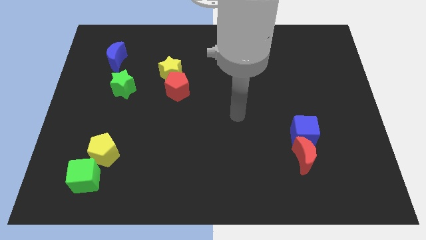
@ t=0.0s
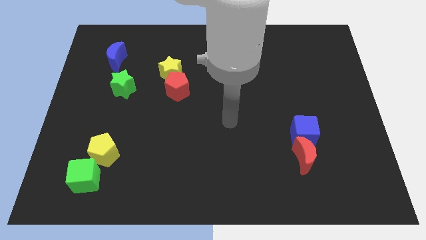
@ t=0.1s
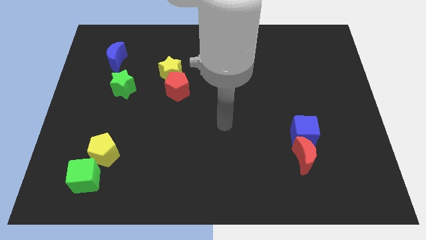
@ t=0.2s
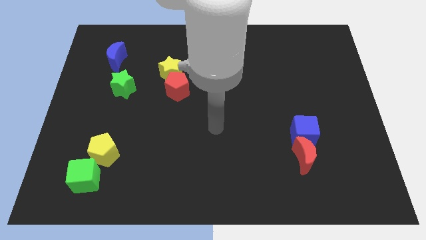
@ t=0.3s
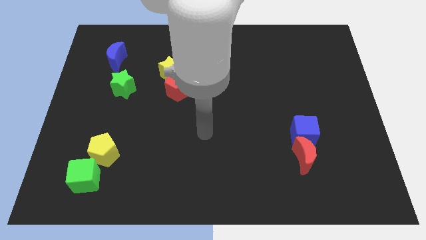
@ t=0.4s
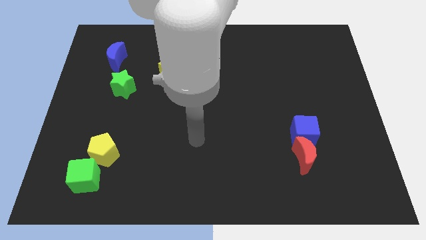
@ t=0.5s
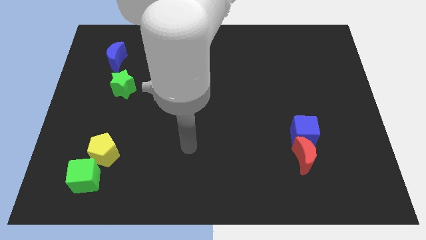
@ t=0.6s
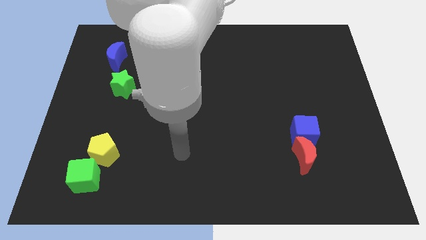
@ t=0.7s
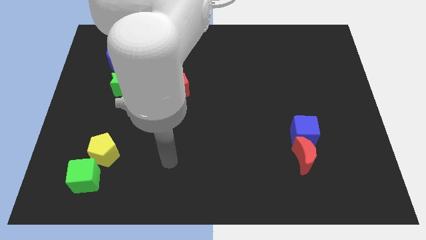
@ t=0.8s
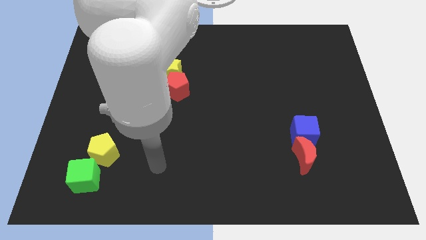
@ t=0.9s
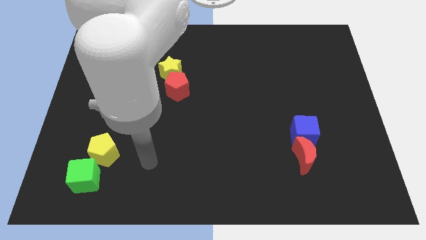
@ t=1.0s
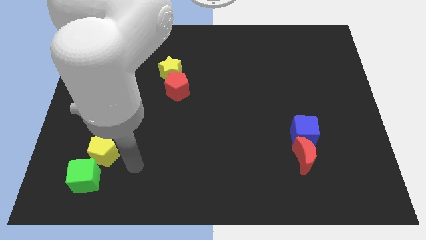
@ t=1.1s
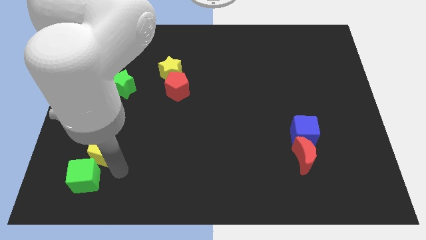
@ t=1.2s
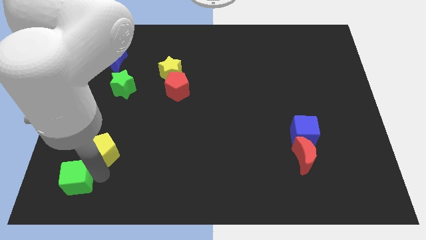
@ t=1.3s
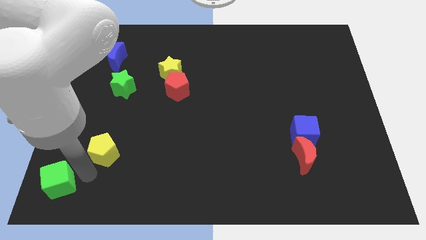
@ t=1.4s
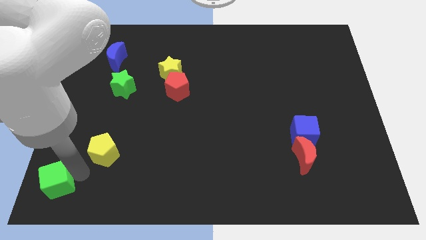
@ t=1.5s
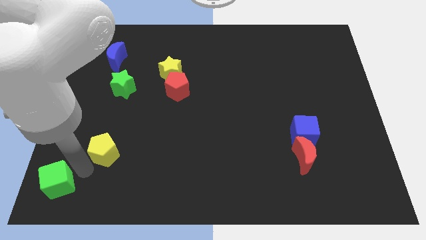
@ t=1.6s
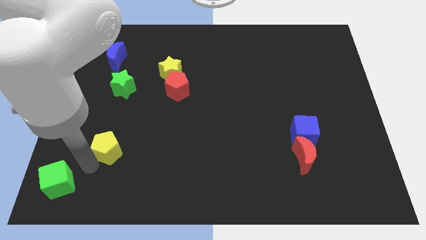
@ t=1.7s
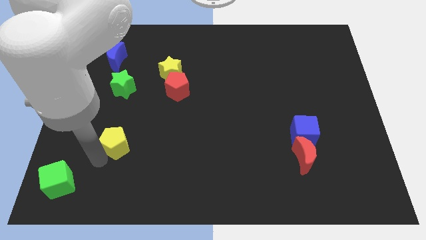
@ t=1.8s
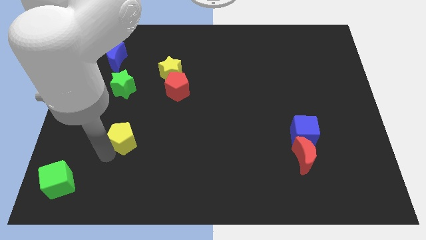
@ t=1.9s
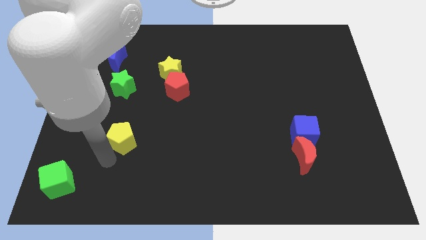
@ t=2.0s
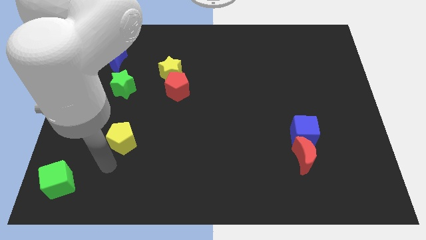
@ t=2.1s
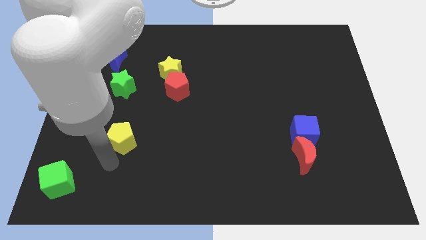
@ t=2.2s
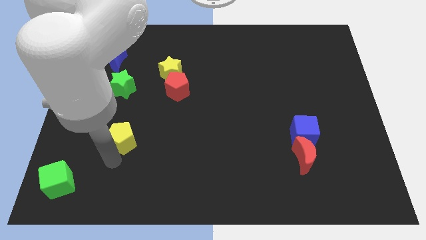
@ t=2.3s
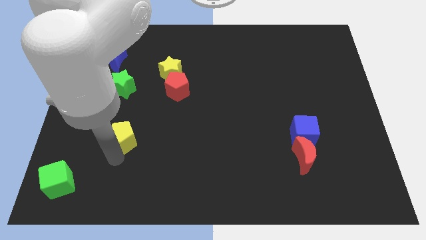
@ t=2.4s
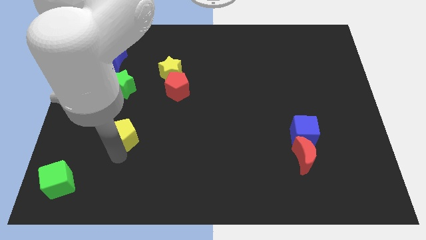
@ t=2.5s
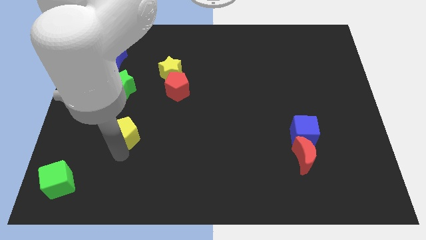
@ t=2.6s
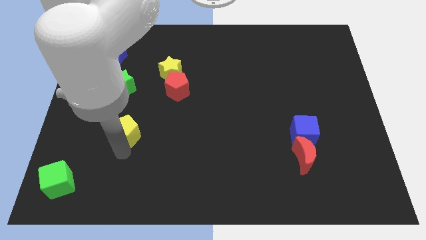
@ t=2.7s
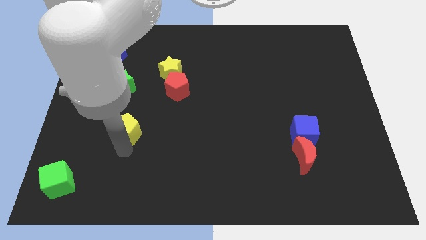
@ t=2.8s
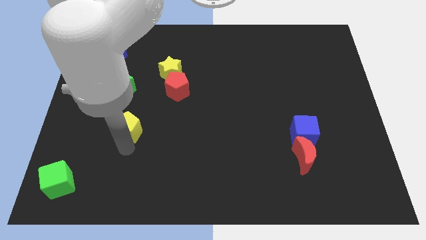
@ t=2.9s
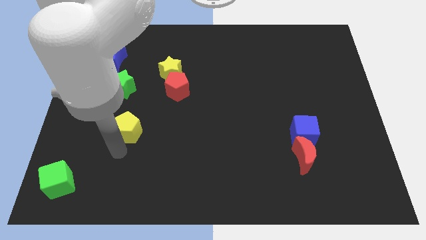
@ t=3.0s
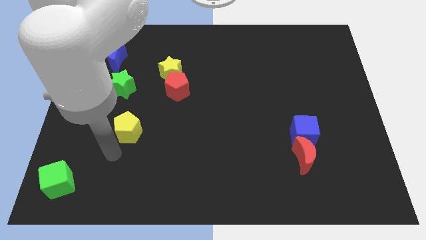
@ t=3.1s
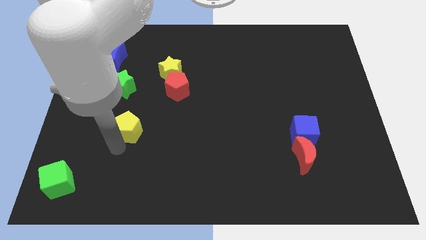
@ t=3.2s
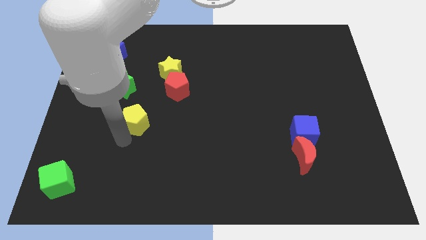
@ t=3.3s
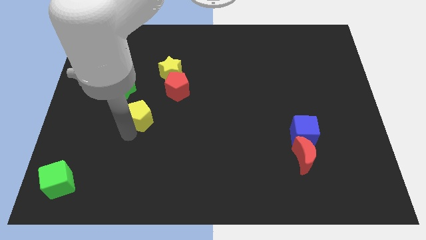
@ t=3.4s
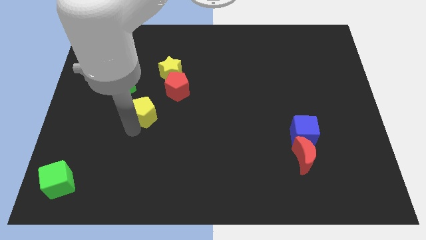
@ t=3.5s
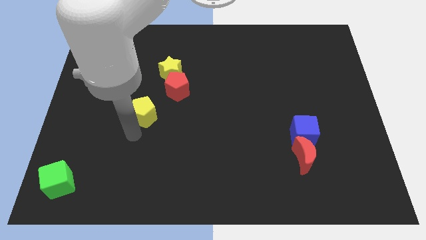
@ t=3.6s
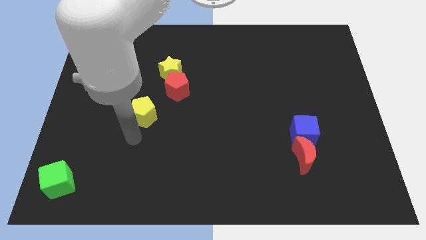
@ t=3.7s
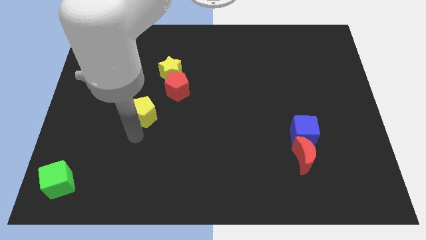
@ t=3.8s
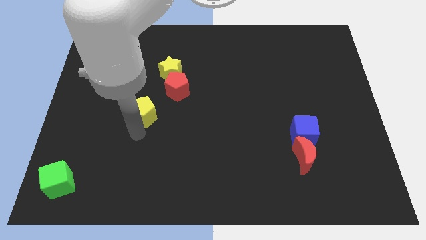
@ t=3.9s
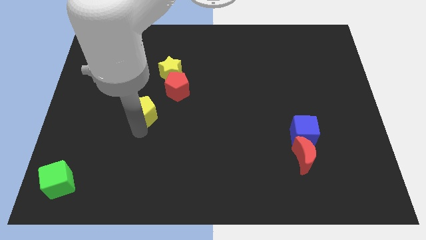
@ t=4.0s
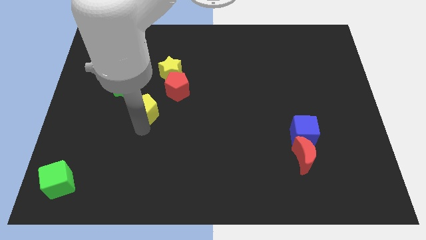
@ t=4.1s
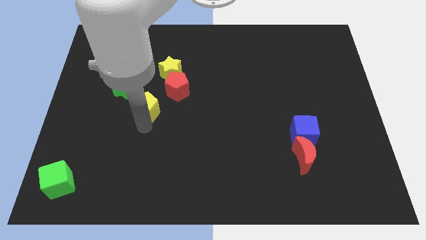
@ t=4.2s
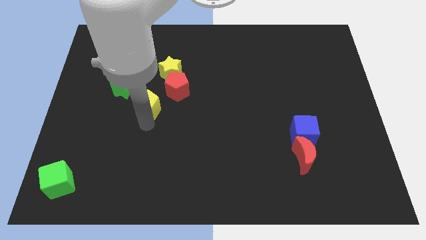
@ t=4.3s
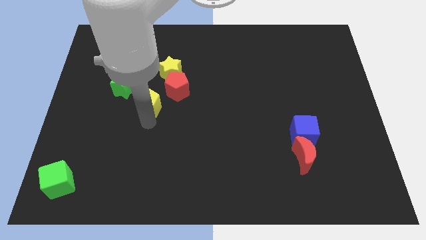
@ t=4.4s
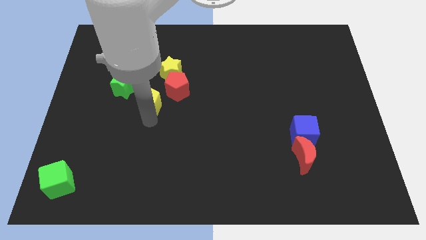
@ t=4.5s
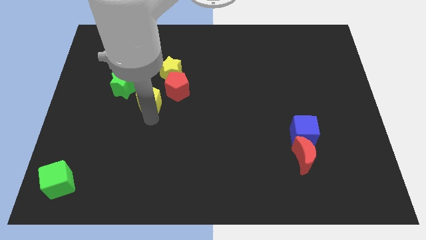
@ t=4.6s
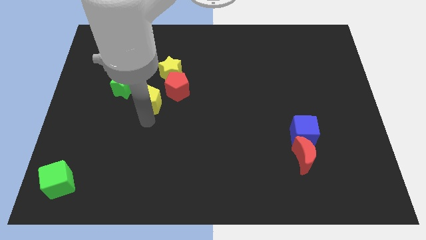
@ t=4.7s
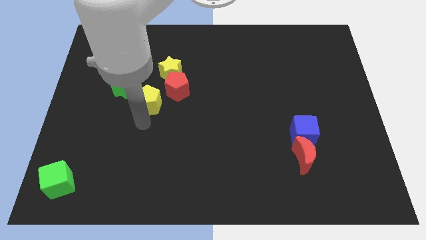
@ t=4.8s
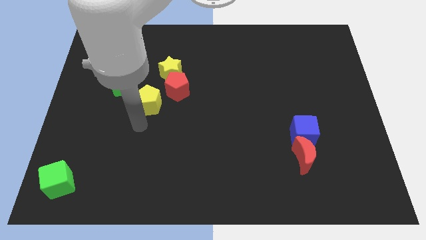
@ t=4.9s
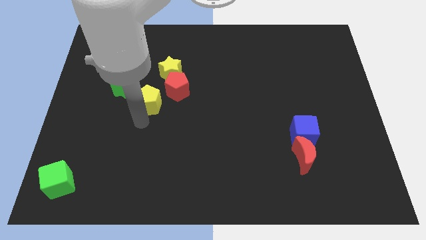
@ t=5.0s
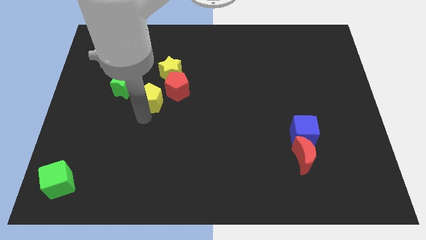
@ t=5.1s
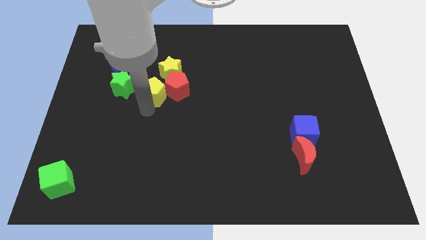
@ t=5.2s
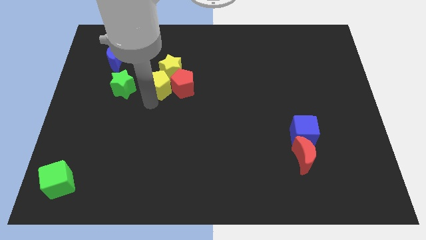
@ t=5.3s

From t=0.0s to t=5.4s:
put the yellow pentagon close to the yellow star

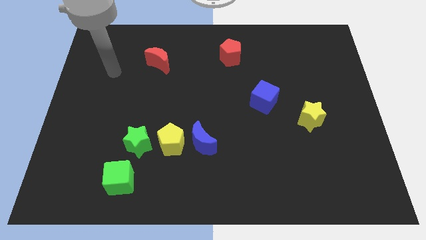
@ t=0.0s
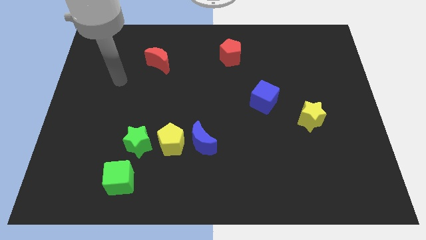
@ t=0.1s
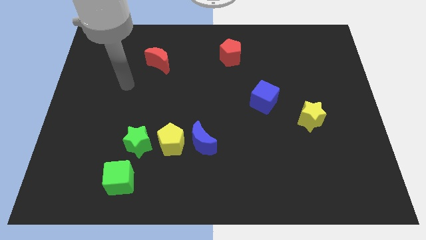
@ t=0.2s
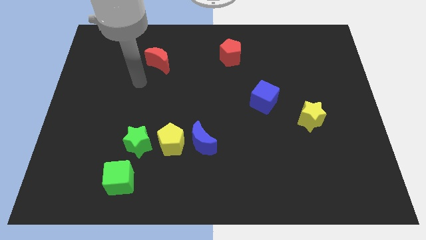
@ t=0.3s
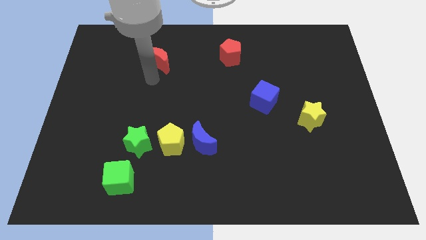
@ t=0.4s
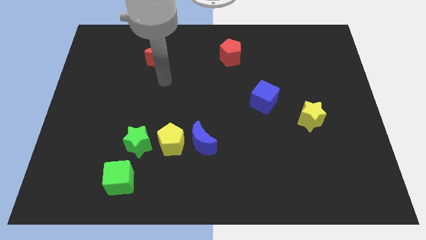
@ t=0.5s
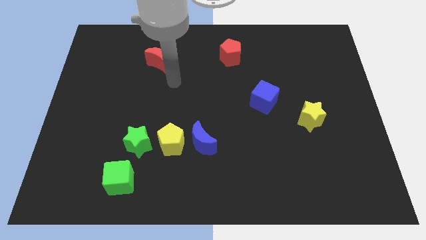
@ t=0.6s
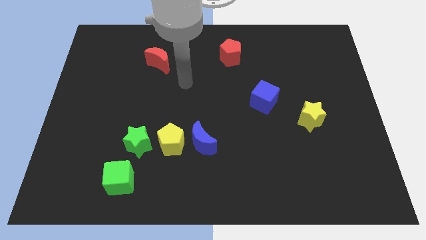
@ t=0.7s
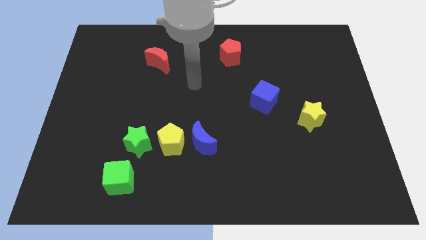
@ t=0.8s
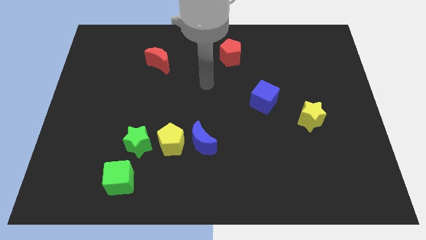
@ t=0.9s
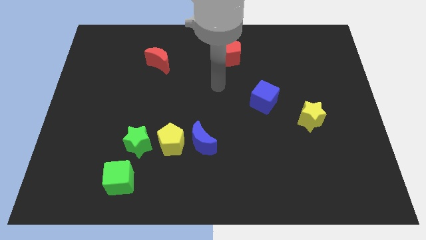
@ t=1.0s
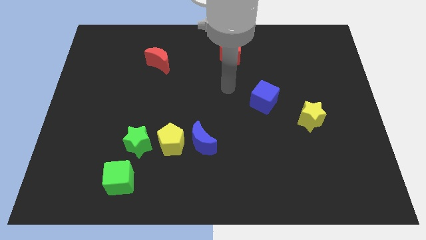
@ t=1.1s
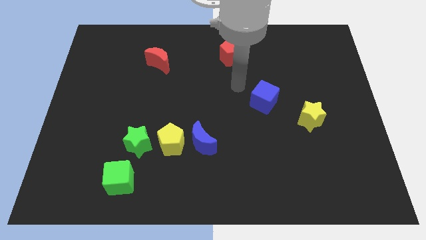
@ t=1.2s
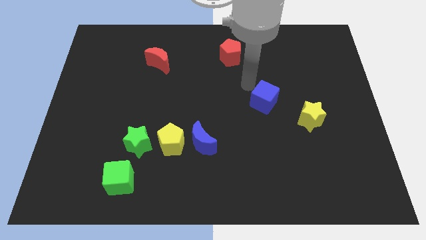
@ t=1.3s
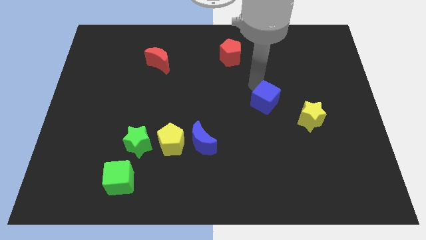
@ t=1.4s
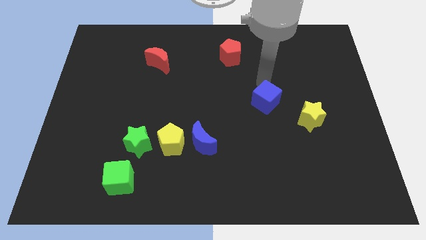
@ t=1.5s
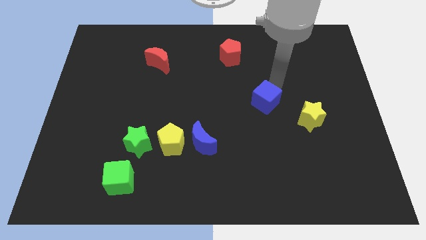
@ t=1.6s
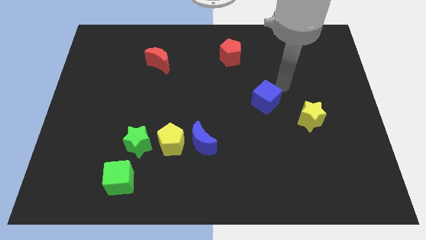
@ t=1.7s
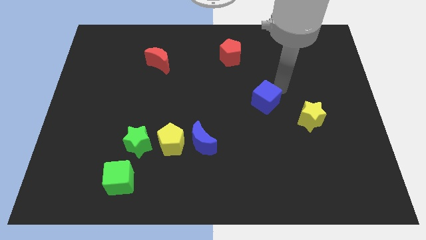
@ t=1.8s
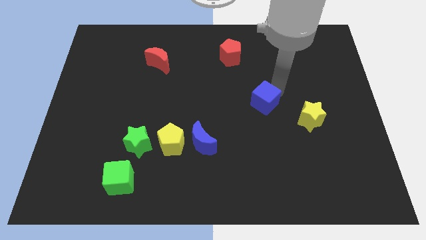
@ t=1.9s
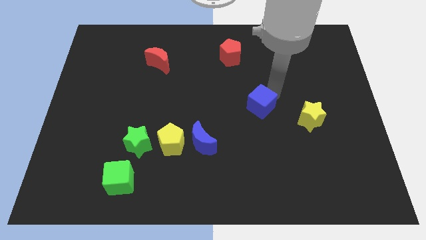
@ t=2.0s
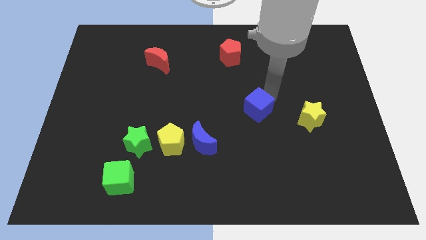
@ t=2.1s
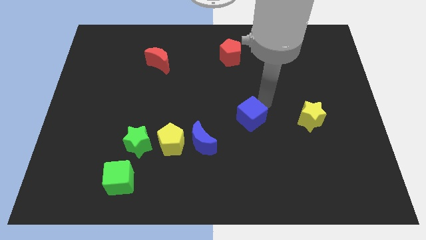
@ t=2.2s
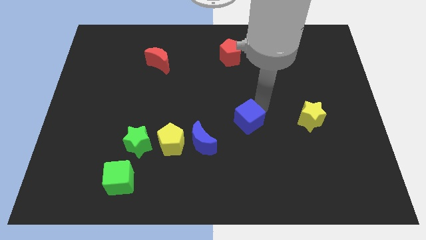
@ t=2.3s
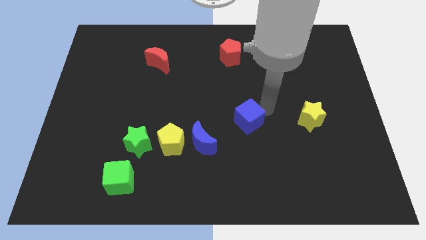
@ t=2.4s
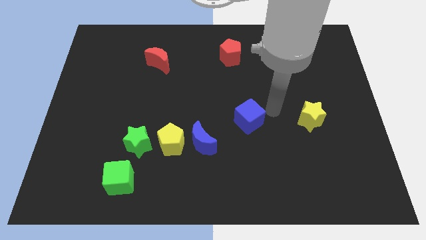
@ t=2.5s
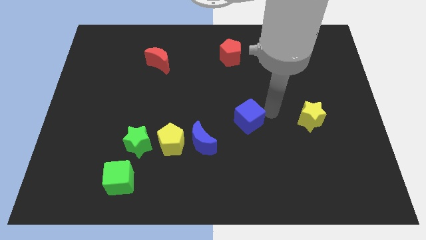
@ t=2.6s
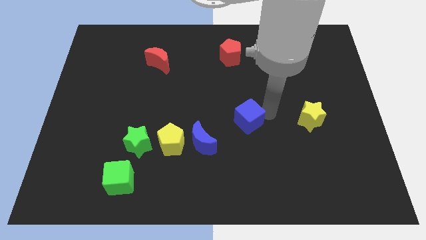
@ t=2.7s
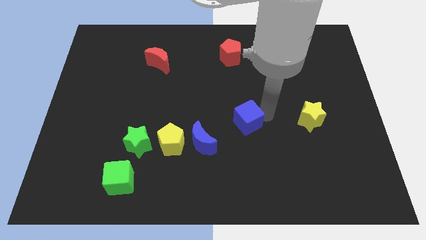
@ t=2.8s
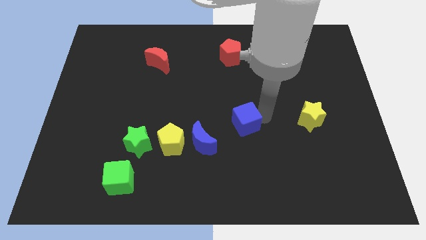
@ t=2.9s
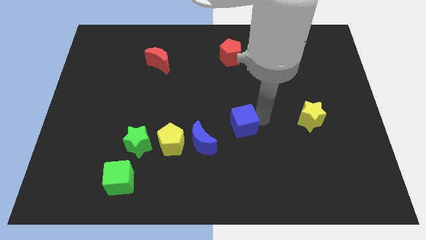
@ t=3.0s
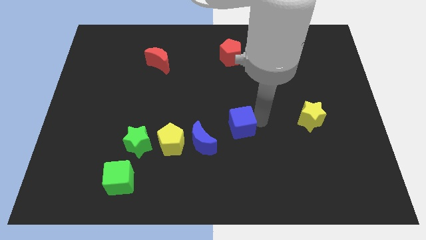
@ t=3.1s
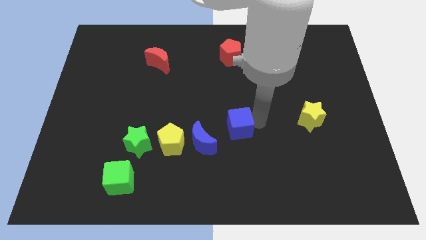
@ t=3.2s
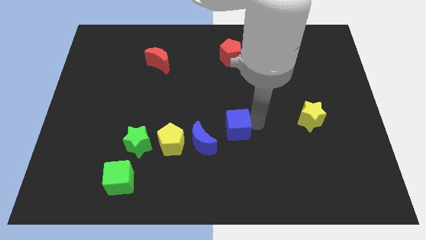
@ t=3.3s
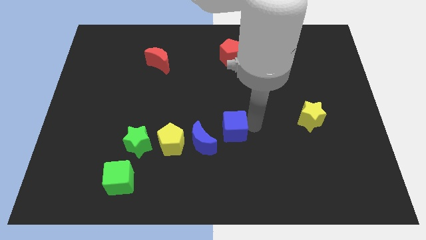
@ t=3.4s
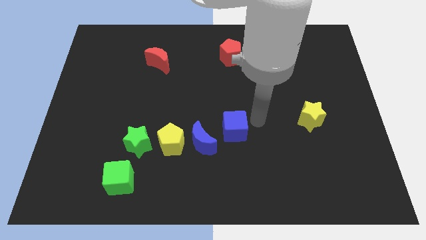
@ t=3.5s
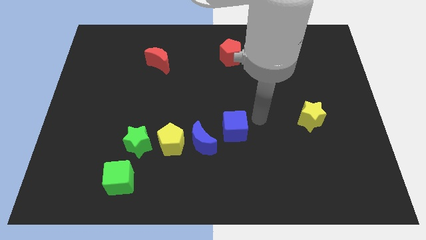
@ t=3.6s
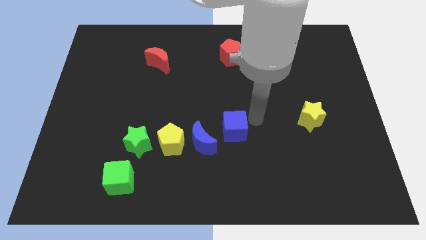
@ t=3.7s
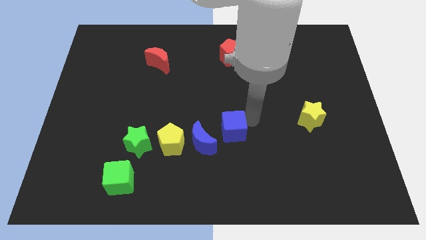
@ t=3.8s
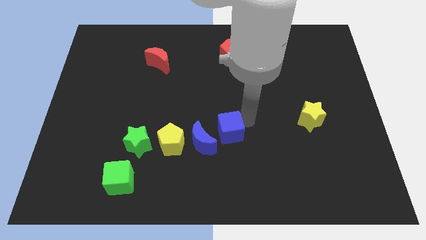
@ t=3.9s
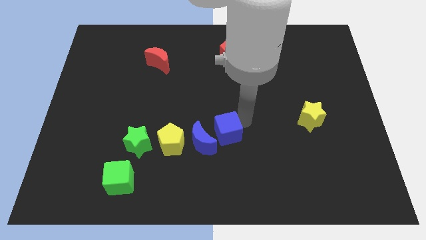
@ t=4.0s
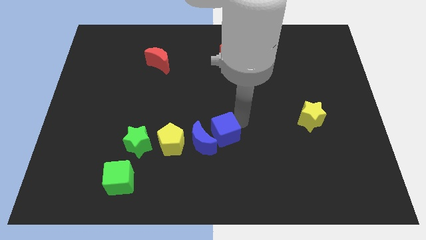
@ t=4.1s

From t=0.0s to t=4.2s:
push the blue cube next to the blue moon
